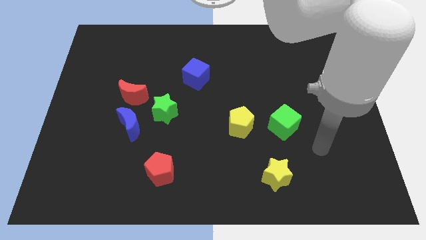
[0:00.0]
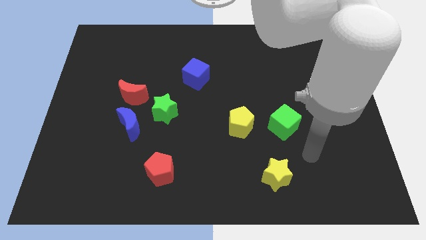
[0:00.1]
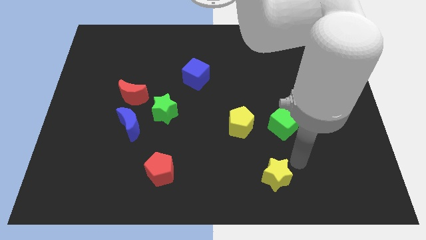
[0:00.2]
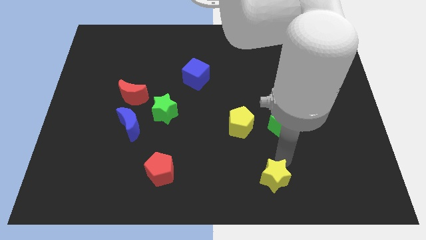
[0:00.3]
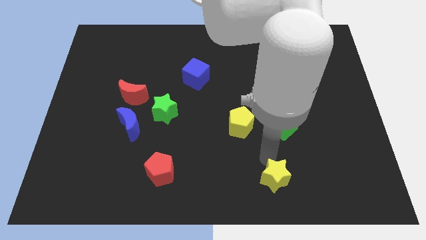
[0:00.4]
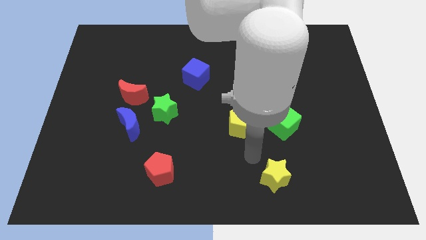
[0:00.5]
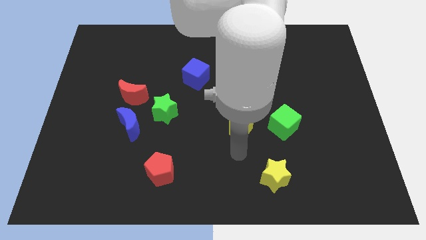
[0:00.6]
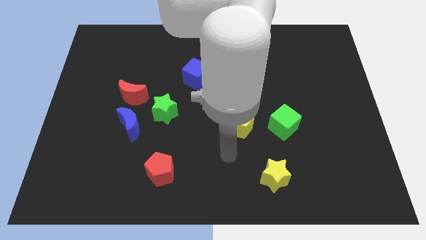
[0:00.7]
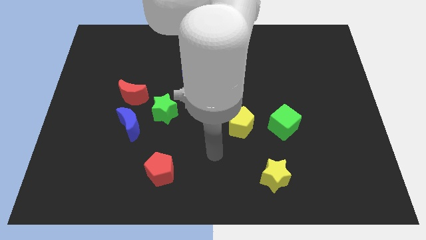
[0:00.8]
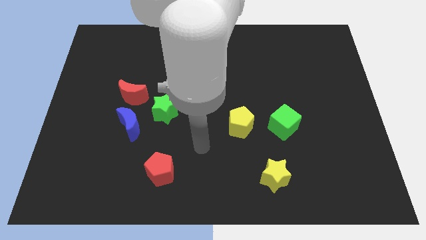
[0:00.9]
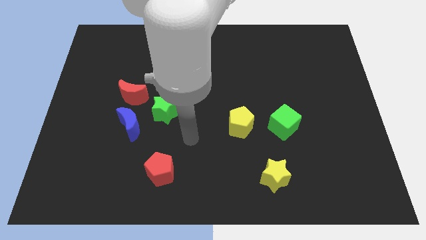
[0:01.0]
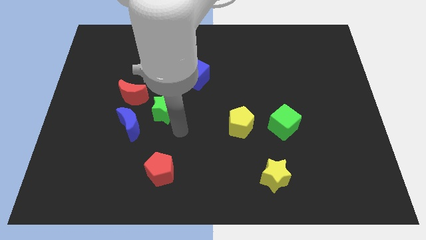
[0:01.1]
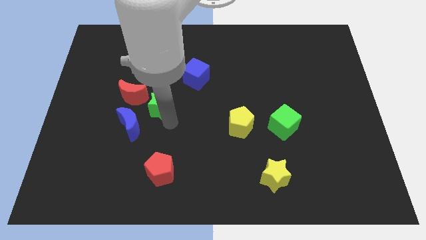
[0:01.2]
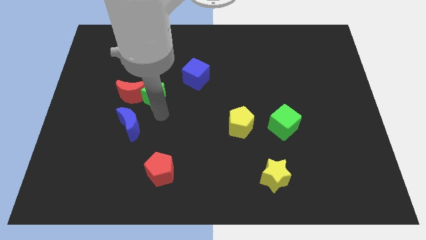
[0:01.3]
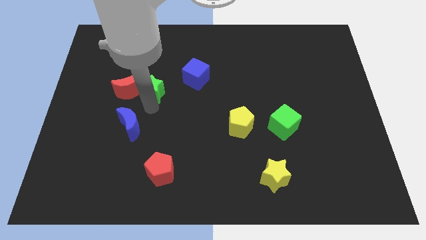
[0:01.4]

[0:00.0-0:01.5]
move the blue moon away from the green star and red moon

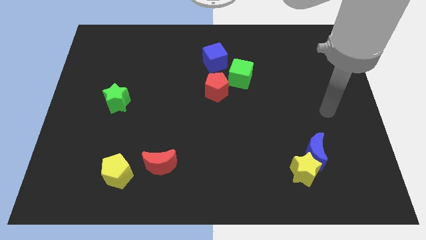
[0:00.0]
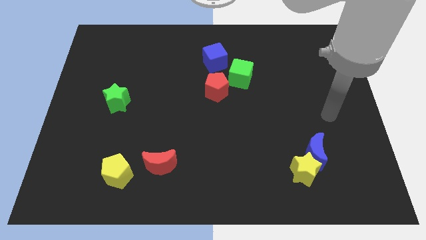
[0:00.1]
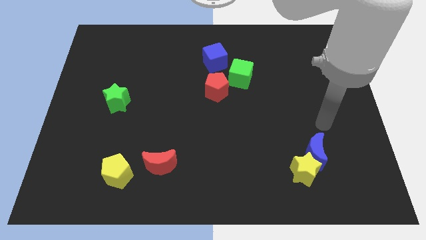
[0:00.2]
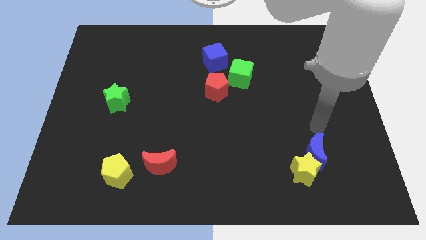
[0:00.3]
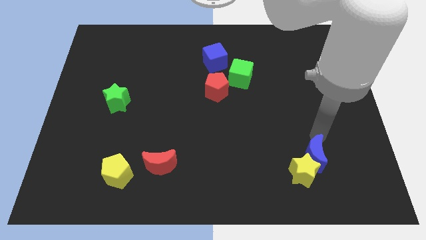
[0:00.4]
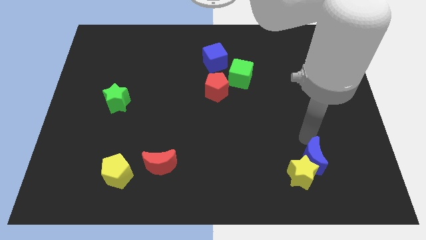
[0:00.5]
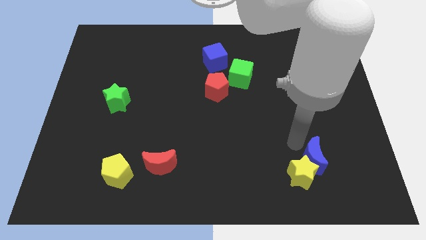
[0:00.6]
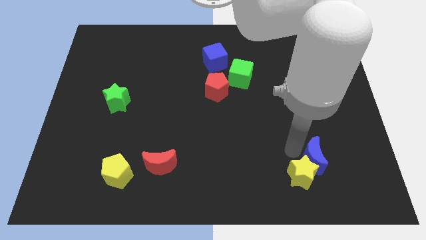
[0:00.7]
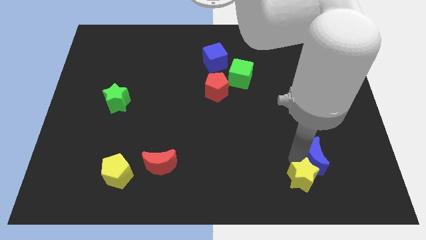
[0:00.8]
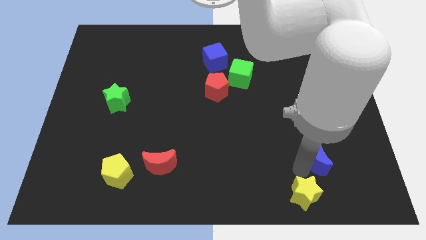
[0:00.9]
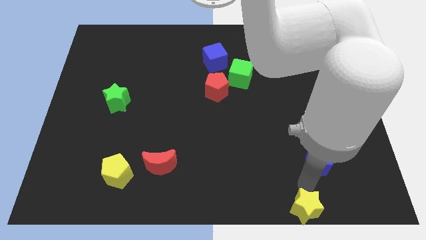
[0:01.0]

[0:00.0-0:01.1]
pull the blue moon apart from the yellow star

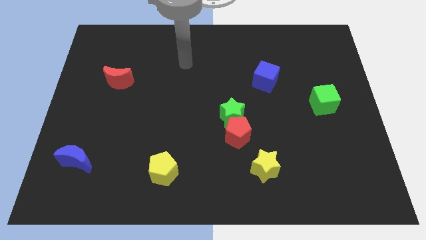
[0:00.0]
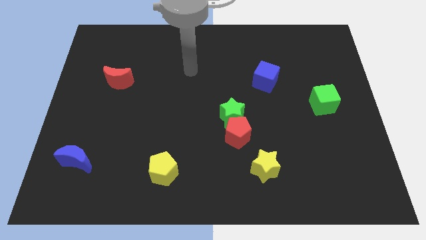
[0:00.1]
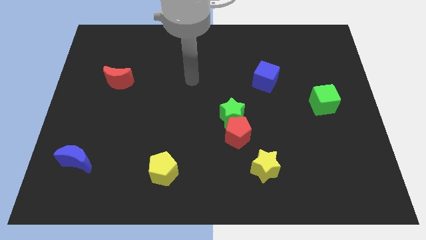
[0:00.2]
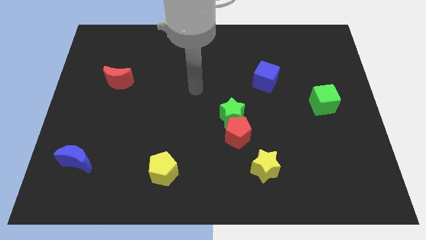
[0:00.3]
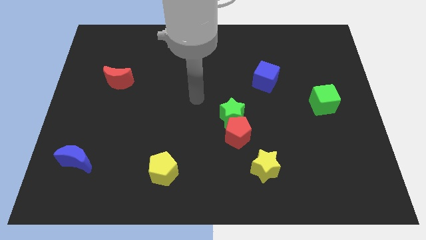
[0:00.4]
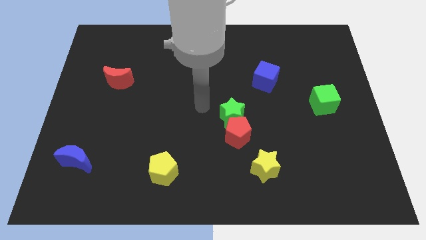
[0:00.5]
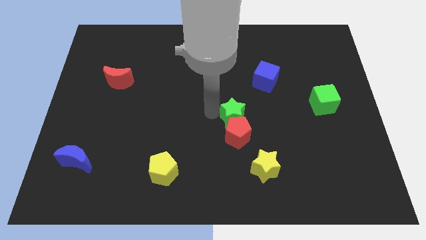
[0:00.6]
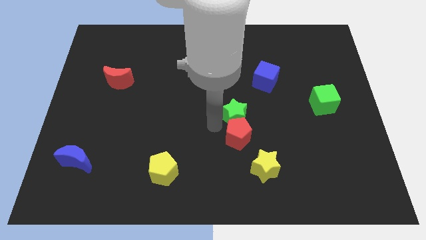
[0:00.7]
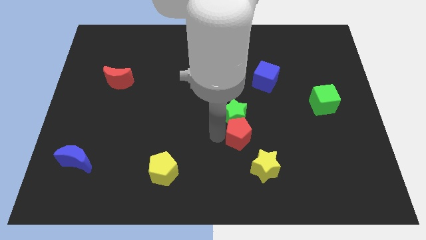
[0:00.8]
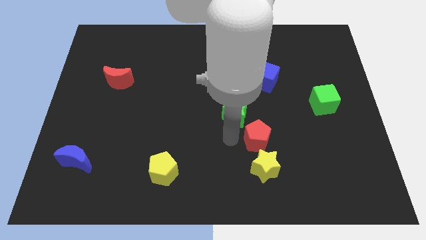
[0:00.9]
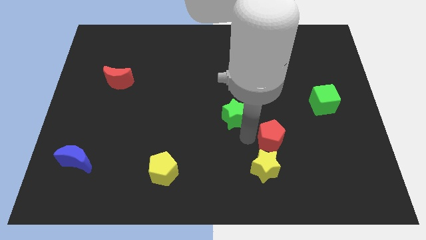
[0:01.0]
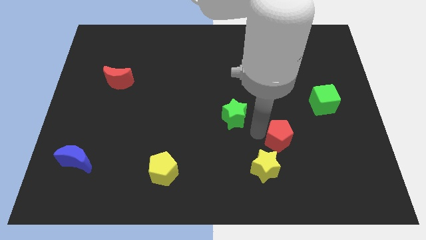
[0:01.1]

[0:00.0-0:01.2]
separate the green star from the red pentagon

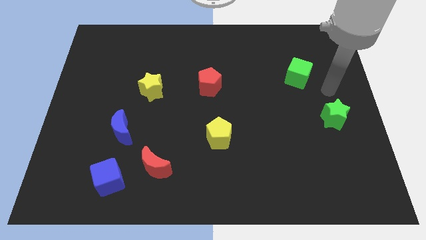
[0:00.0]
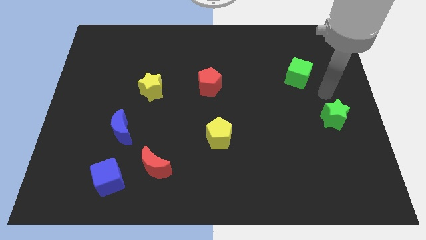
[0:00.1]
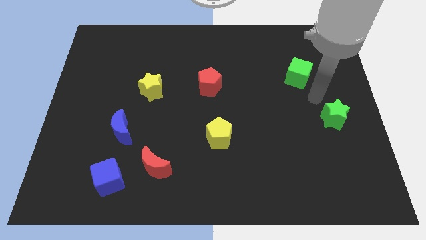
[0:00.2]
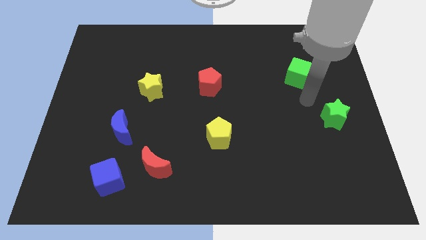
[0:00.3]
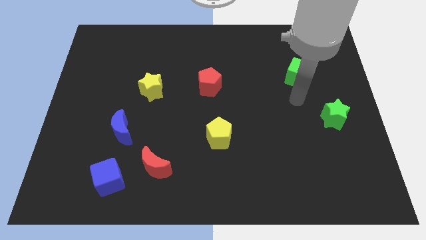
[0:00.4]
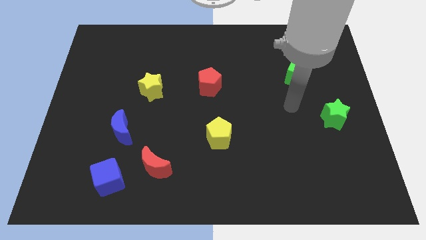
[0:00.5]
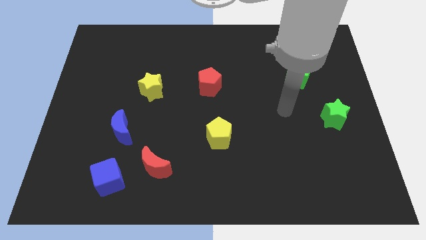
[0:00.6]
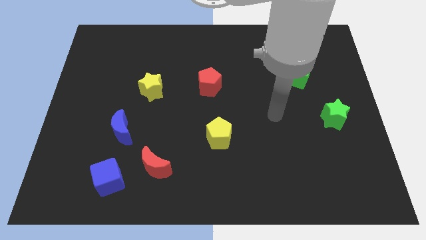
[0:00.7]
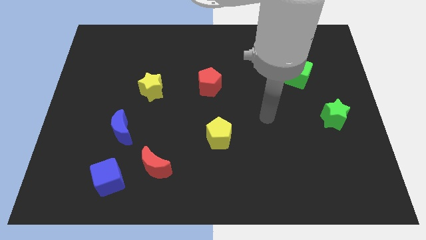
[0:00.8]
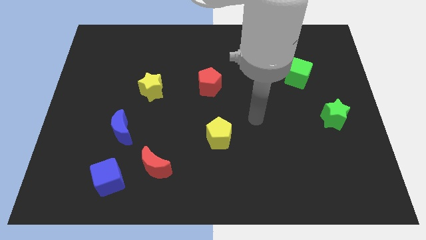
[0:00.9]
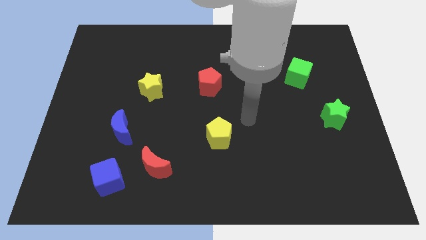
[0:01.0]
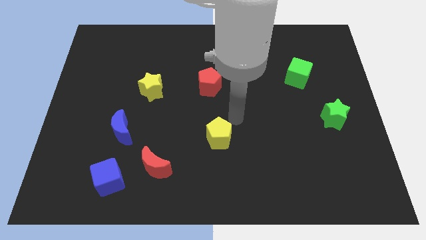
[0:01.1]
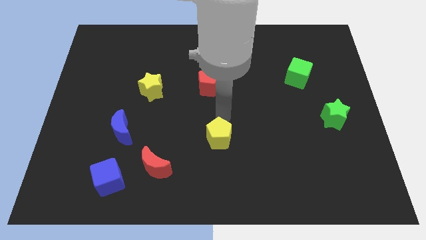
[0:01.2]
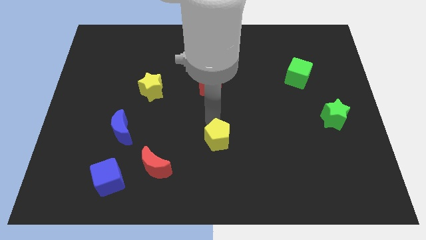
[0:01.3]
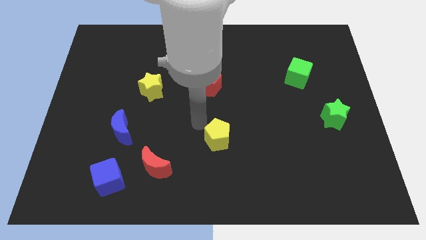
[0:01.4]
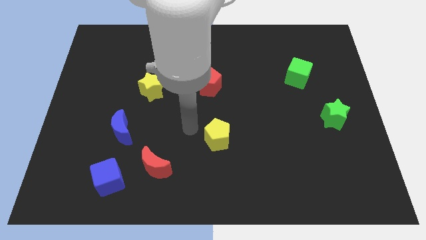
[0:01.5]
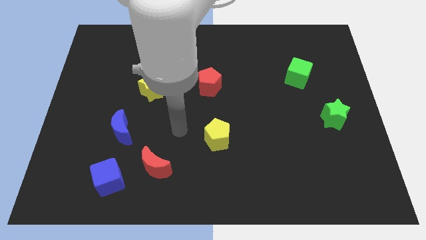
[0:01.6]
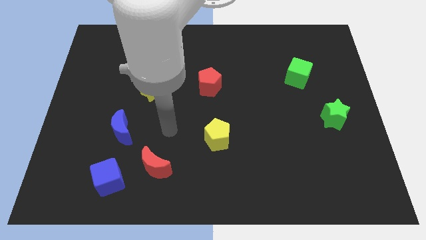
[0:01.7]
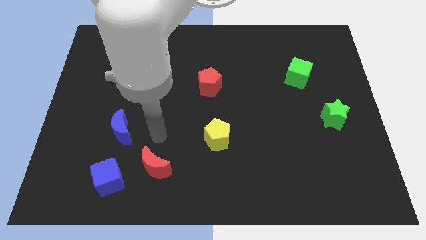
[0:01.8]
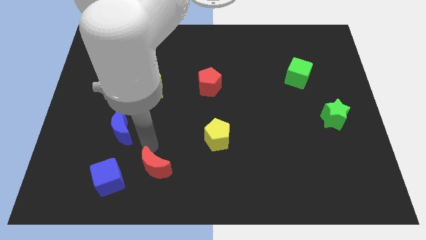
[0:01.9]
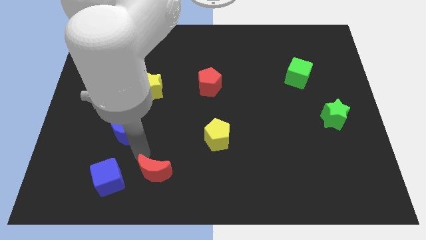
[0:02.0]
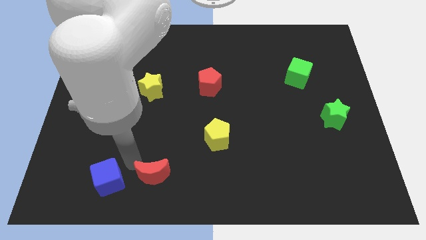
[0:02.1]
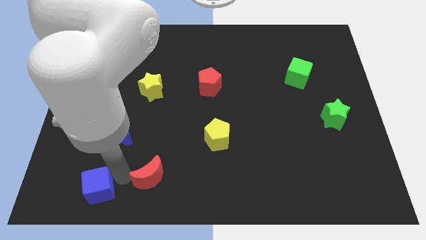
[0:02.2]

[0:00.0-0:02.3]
pull the red moon apart from the blue cube

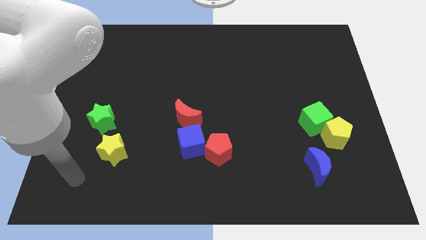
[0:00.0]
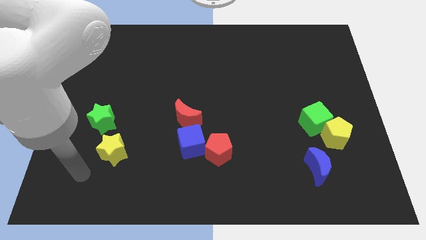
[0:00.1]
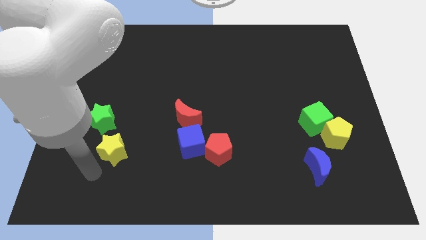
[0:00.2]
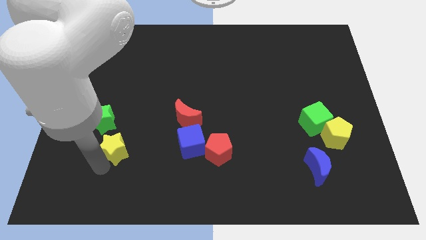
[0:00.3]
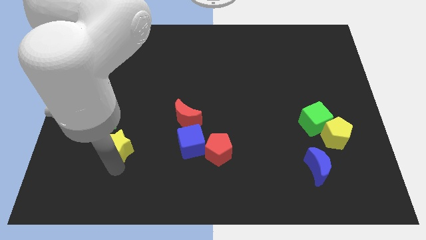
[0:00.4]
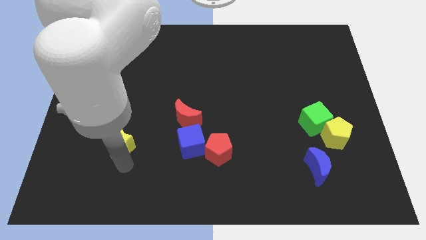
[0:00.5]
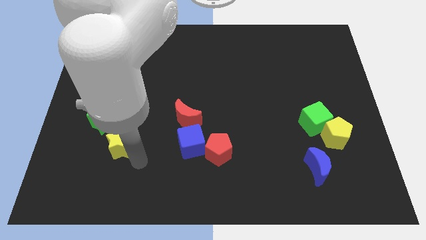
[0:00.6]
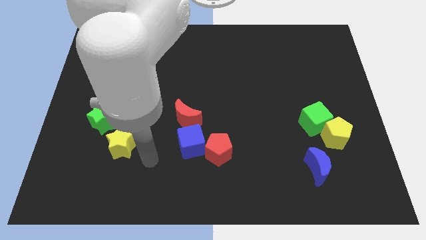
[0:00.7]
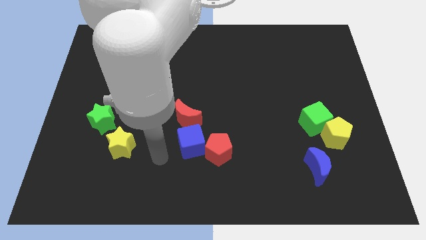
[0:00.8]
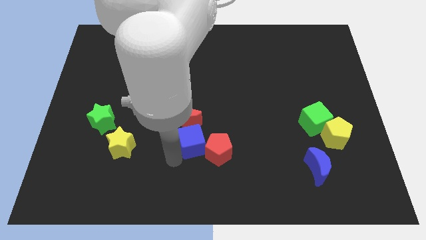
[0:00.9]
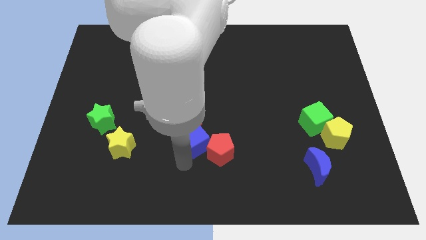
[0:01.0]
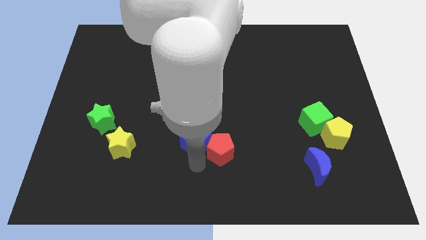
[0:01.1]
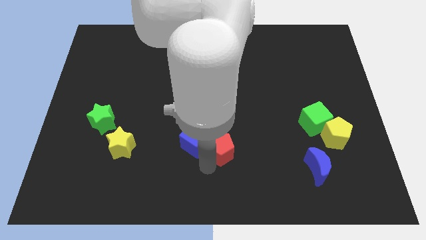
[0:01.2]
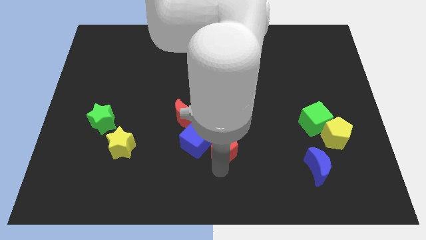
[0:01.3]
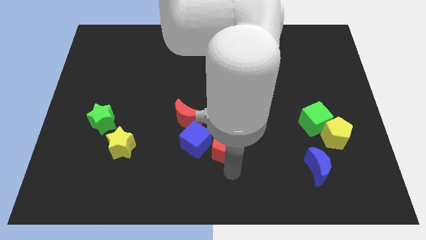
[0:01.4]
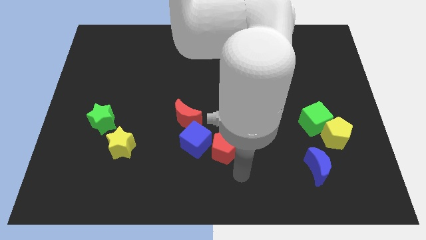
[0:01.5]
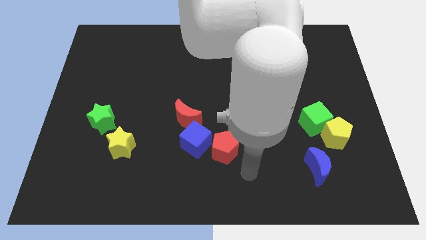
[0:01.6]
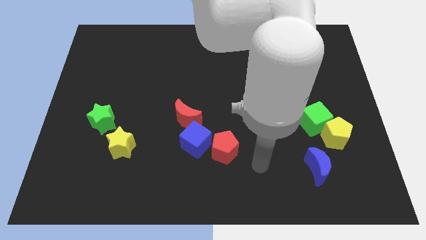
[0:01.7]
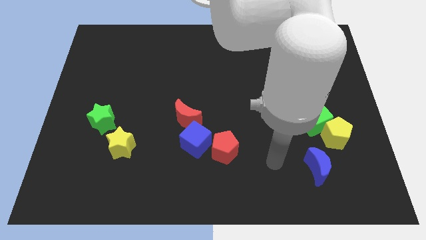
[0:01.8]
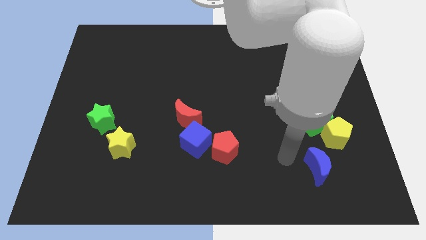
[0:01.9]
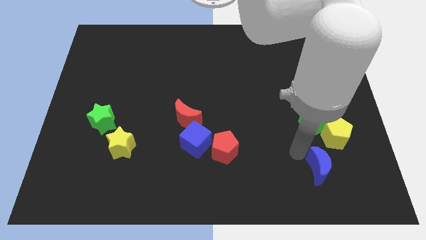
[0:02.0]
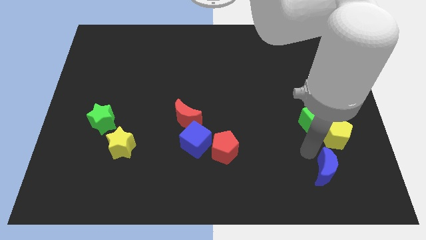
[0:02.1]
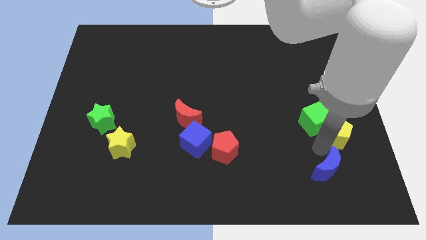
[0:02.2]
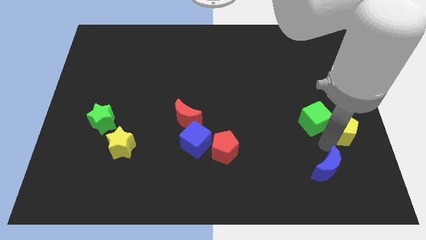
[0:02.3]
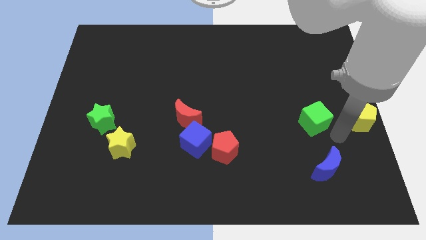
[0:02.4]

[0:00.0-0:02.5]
pull the green cube apart from the yellow pentagon

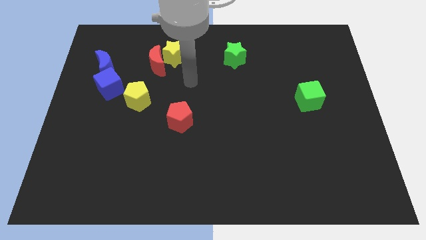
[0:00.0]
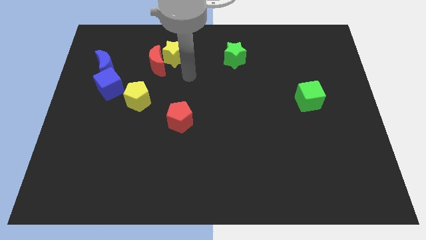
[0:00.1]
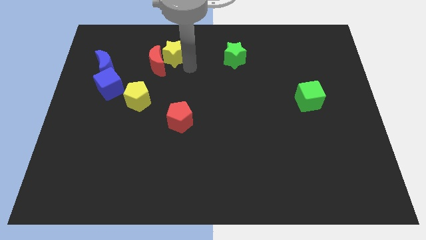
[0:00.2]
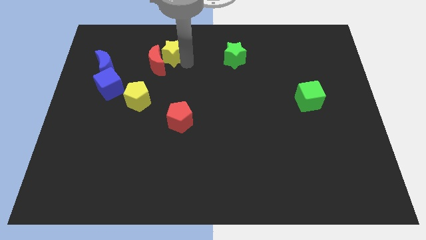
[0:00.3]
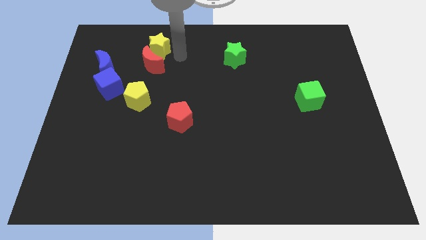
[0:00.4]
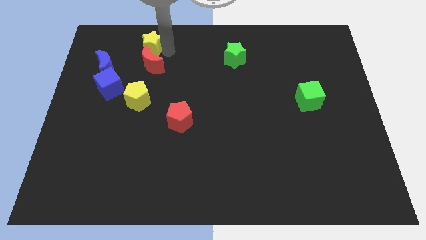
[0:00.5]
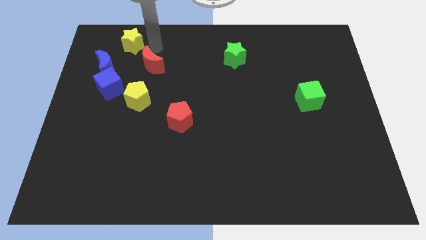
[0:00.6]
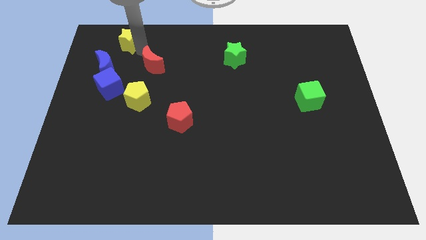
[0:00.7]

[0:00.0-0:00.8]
move the red moon away from the yellow star
